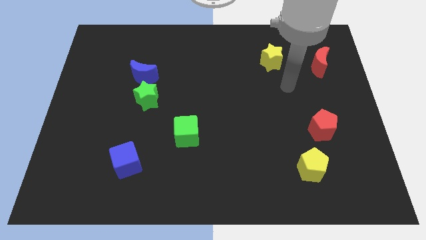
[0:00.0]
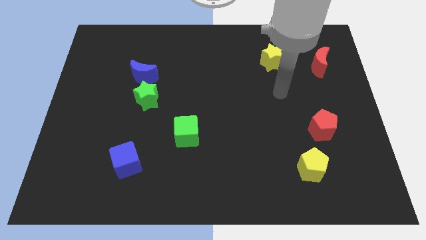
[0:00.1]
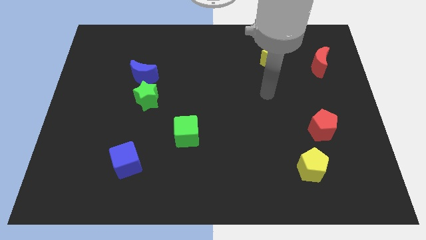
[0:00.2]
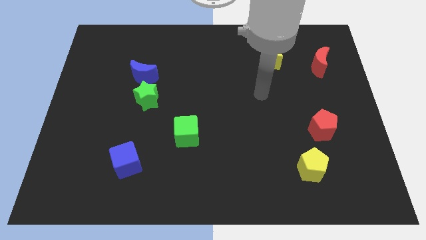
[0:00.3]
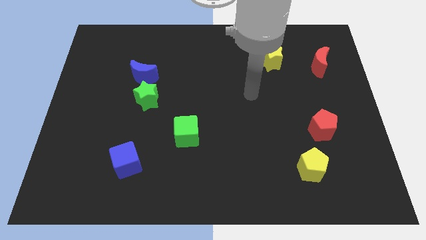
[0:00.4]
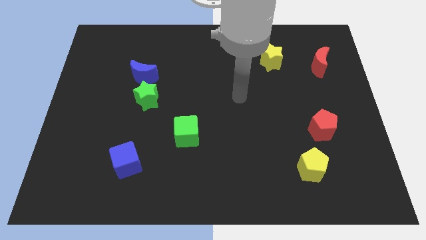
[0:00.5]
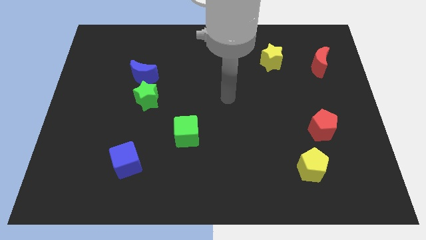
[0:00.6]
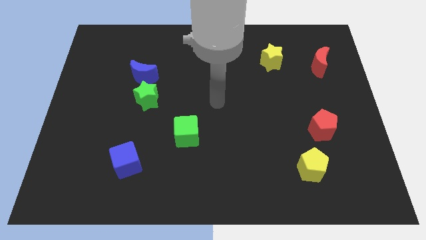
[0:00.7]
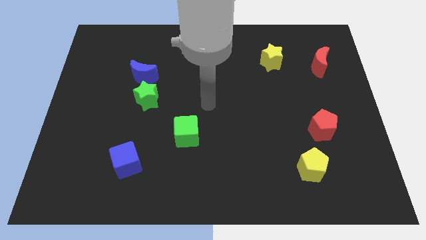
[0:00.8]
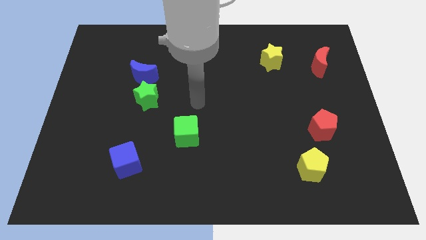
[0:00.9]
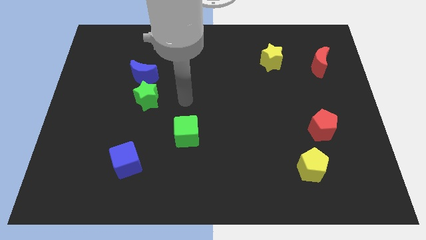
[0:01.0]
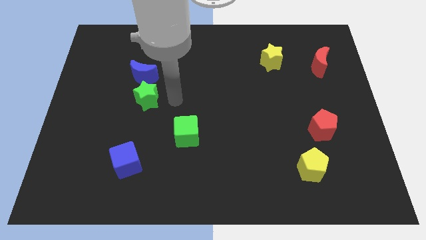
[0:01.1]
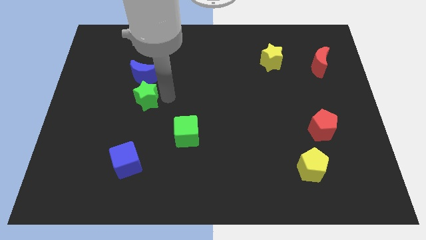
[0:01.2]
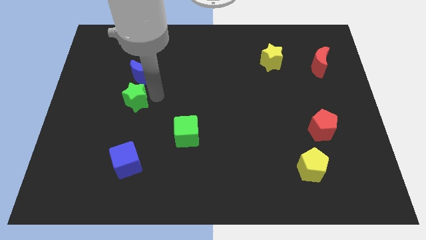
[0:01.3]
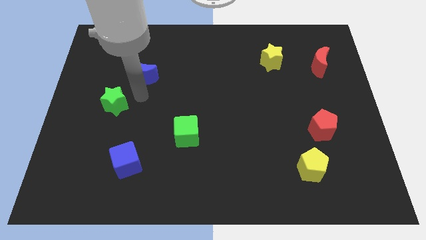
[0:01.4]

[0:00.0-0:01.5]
separate the blue moon from the green star

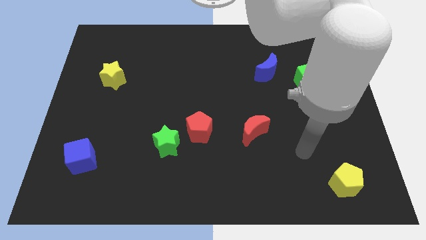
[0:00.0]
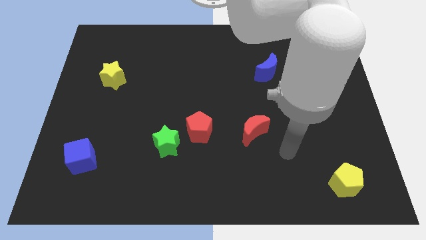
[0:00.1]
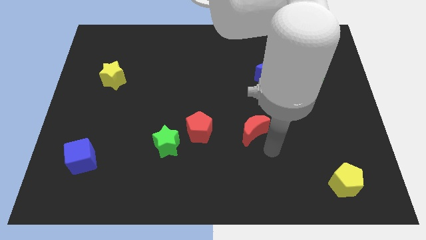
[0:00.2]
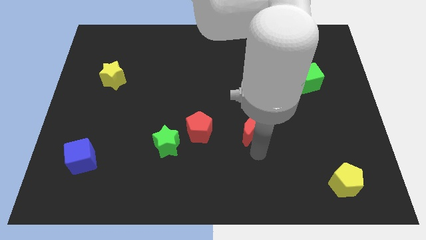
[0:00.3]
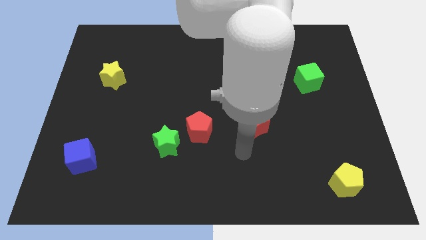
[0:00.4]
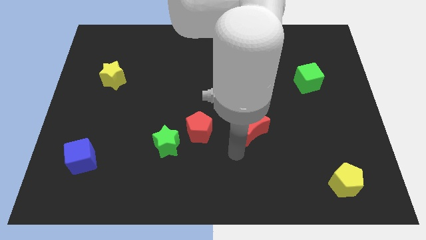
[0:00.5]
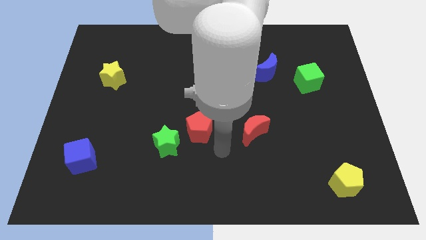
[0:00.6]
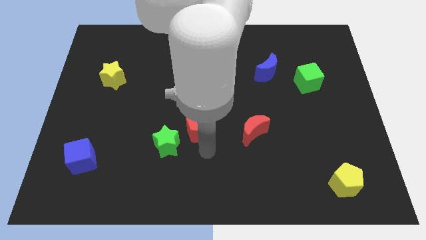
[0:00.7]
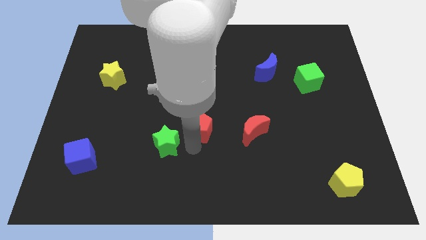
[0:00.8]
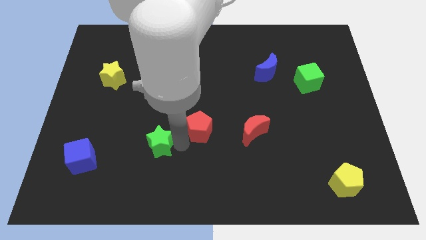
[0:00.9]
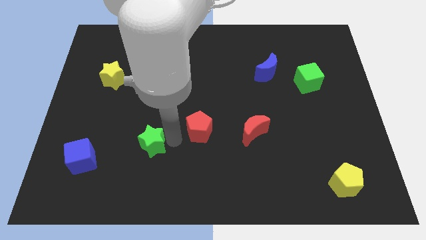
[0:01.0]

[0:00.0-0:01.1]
move the red pentagon away from the green star

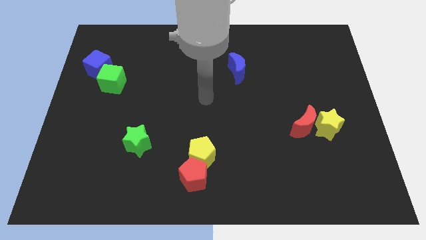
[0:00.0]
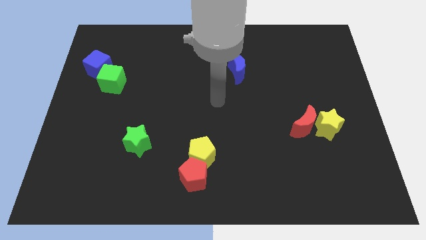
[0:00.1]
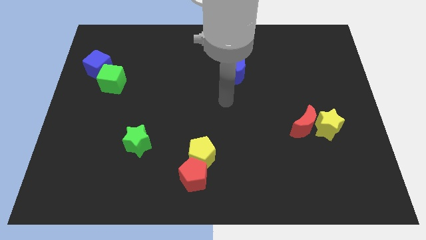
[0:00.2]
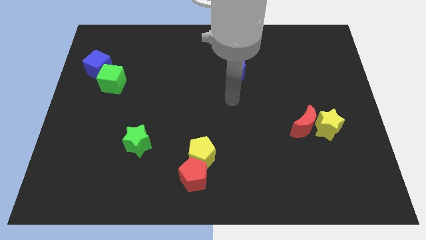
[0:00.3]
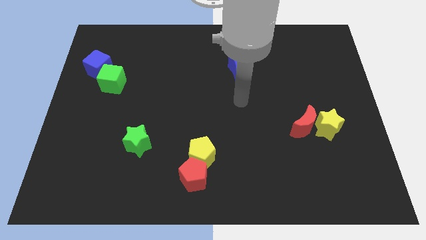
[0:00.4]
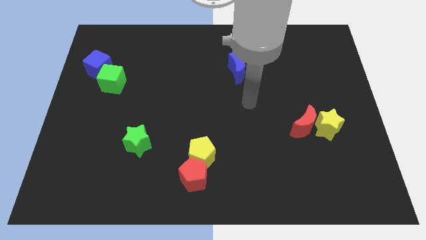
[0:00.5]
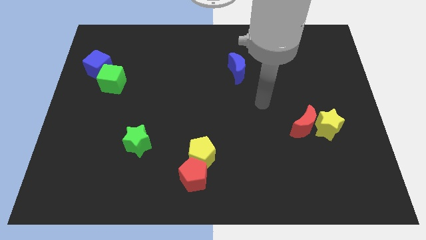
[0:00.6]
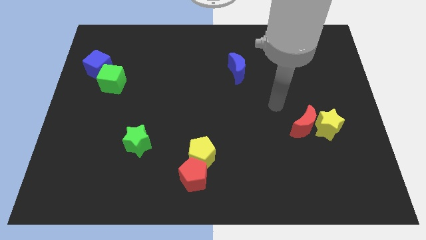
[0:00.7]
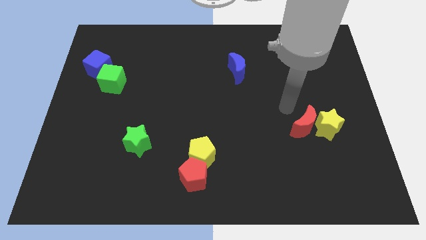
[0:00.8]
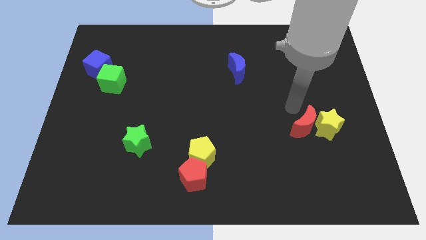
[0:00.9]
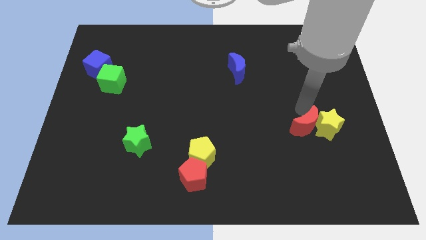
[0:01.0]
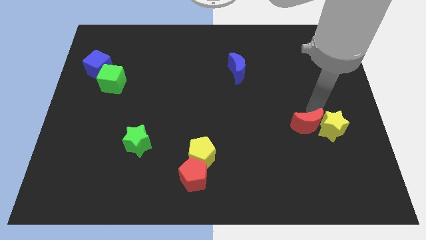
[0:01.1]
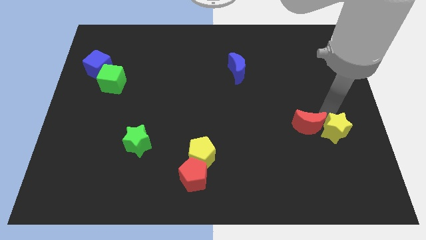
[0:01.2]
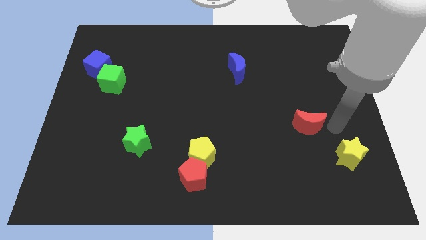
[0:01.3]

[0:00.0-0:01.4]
pull the red moon apart from the yellow star

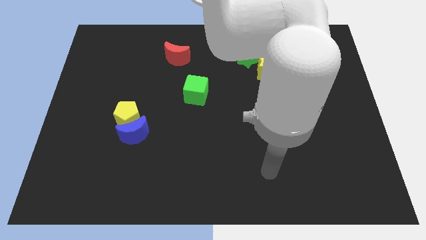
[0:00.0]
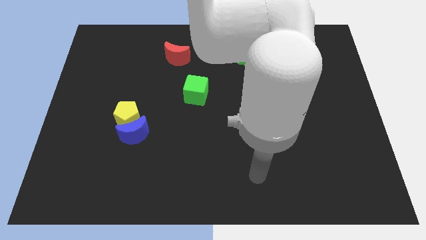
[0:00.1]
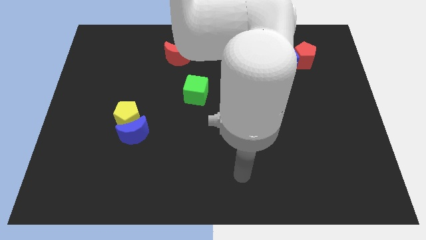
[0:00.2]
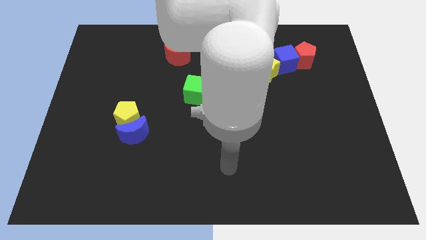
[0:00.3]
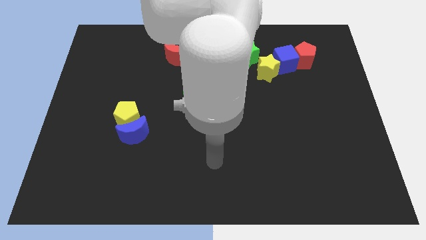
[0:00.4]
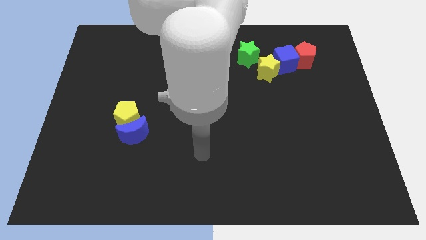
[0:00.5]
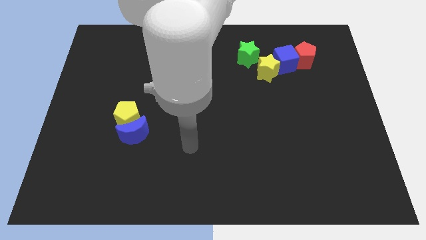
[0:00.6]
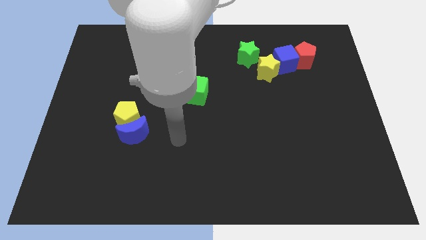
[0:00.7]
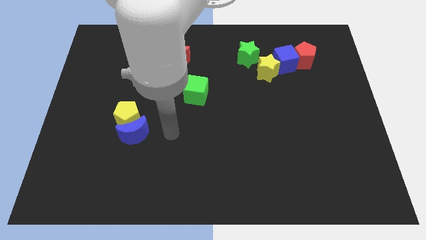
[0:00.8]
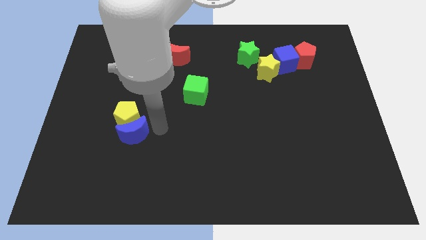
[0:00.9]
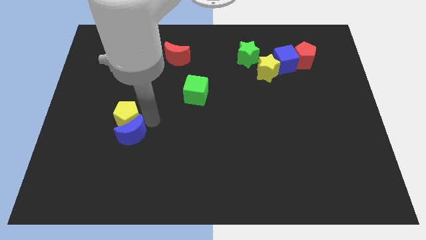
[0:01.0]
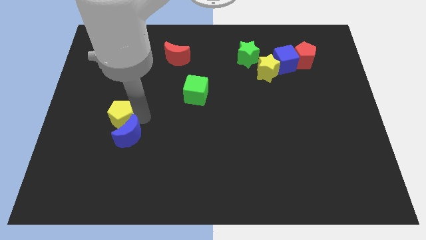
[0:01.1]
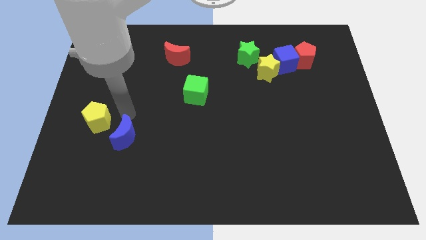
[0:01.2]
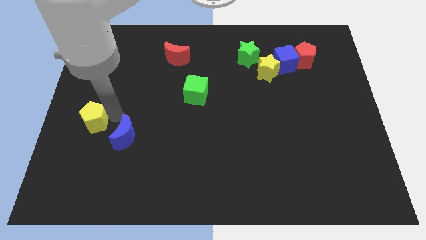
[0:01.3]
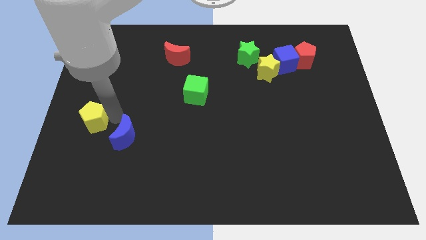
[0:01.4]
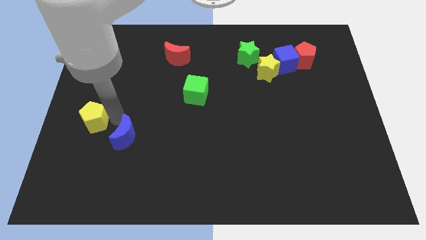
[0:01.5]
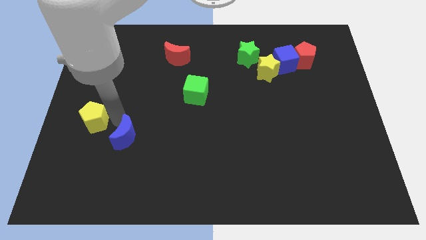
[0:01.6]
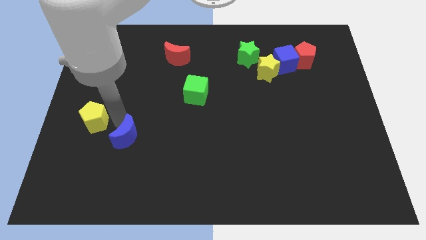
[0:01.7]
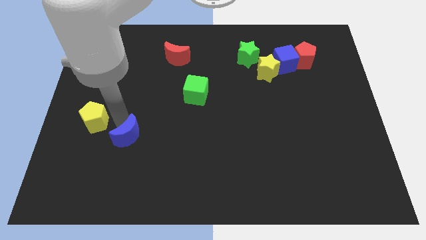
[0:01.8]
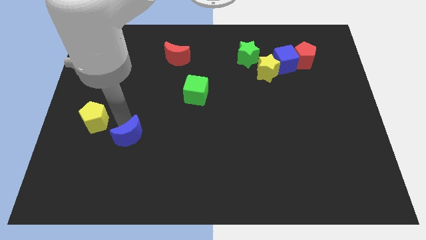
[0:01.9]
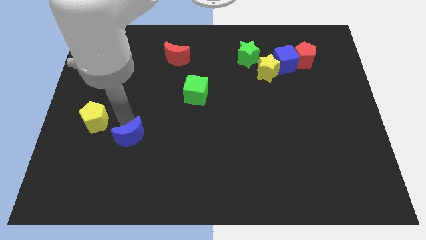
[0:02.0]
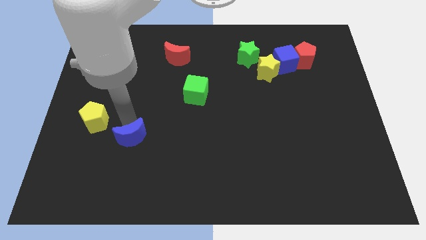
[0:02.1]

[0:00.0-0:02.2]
pull the blue moon apart from the yellow pentagon

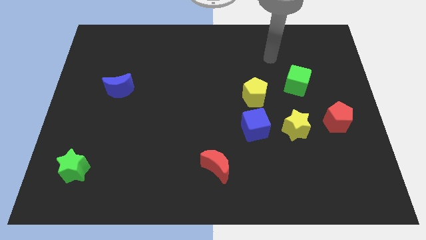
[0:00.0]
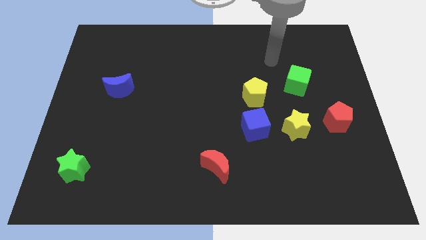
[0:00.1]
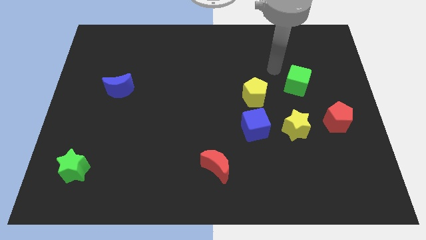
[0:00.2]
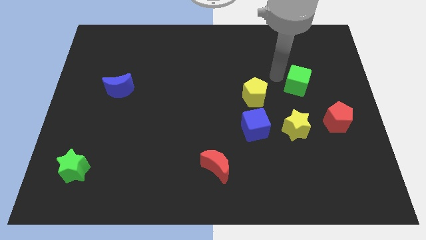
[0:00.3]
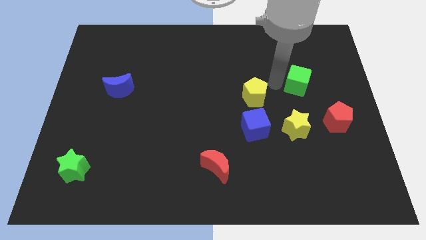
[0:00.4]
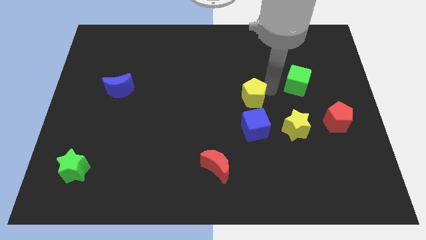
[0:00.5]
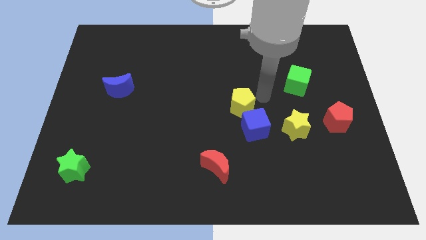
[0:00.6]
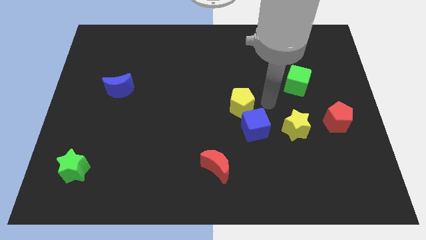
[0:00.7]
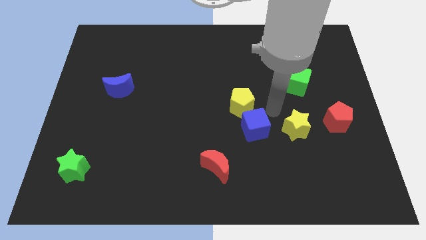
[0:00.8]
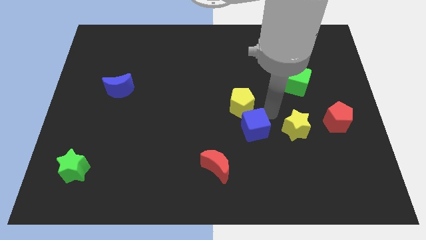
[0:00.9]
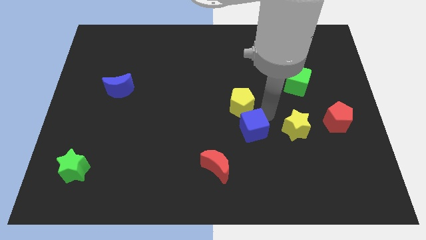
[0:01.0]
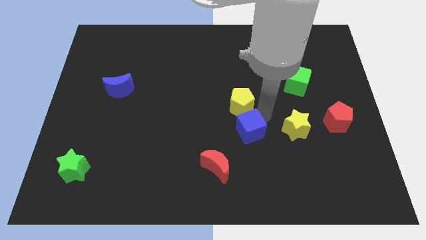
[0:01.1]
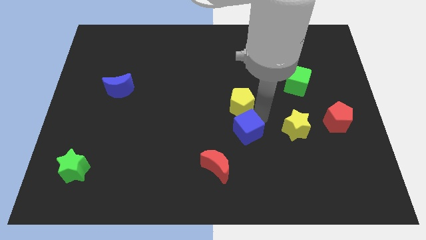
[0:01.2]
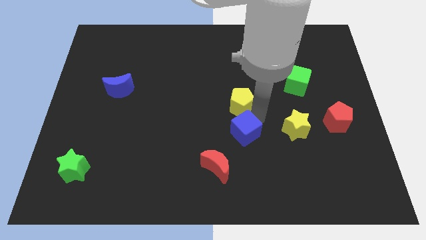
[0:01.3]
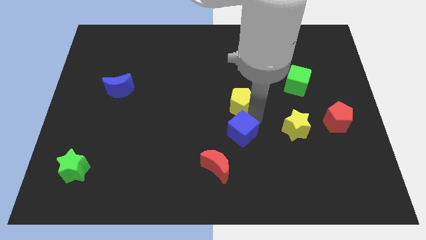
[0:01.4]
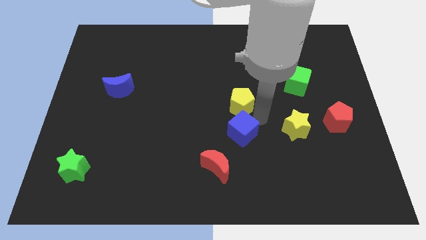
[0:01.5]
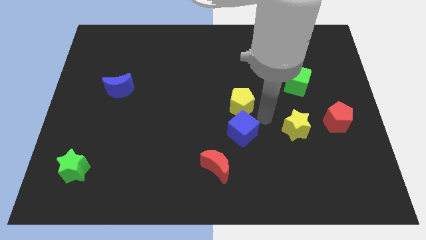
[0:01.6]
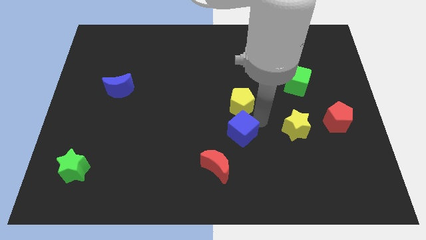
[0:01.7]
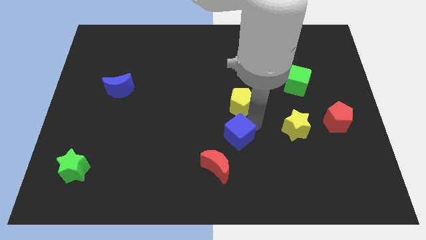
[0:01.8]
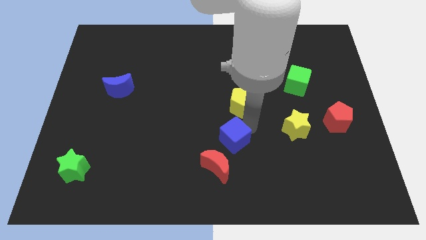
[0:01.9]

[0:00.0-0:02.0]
separate the blue cube from the yellow star and yellow pentagon

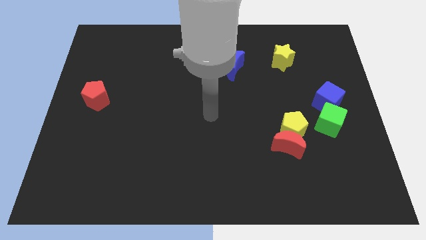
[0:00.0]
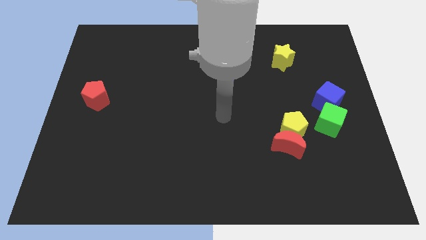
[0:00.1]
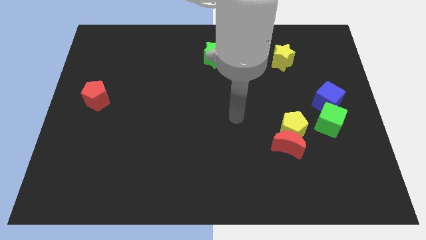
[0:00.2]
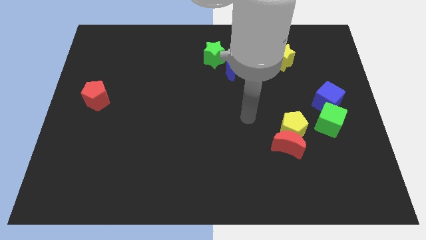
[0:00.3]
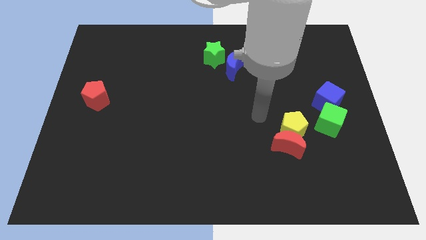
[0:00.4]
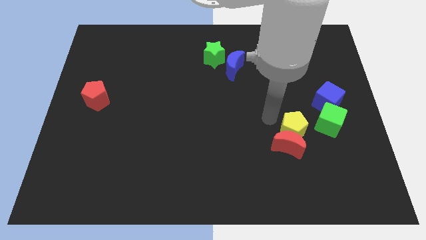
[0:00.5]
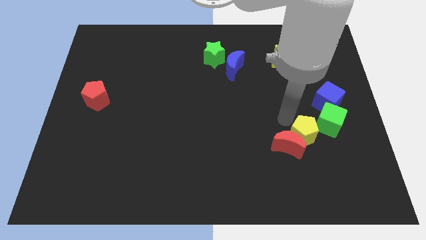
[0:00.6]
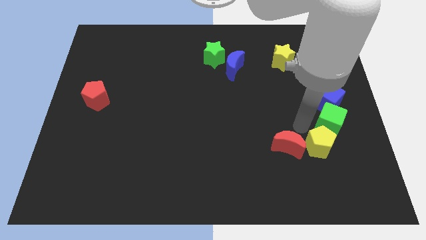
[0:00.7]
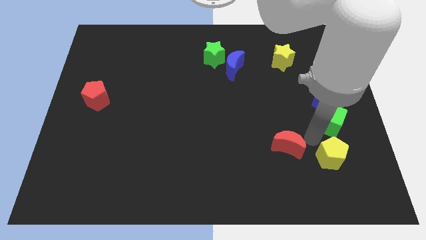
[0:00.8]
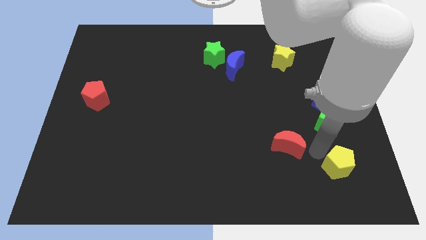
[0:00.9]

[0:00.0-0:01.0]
separate the red moon from the yellow pentagon
